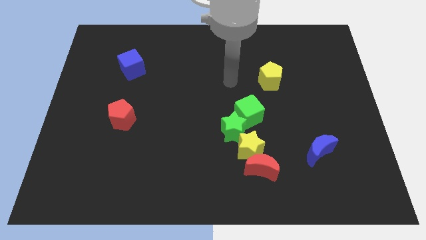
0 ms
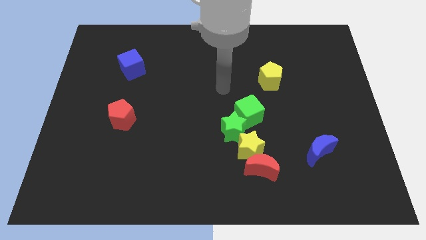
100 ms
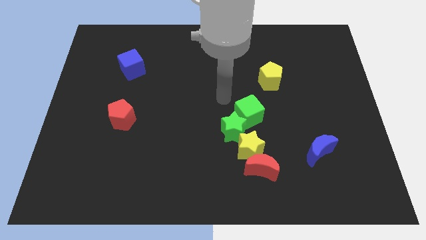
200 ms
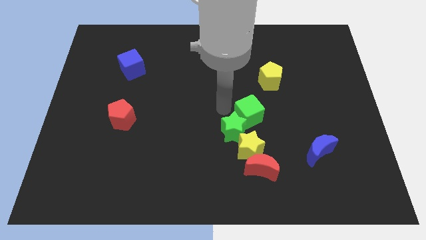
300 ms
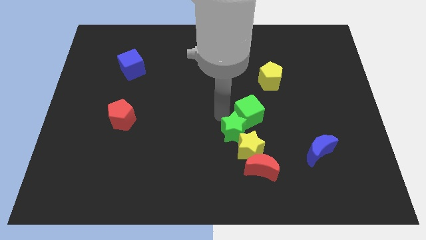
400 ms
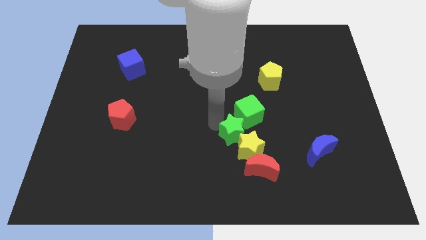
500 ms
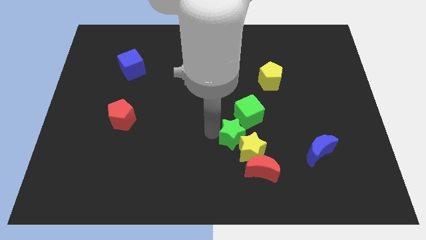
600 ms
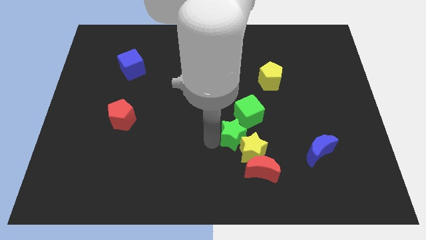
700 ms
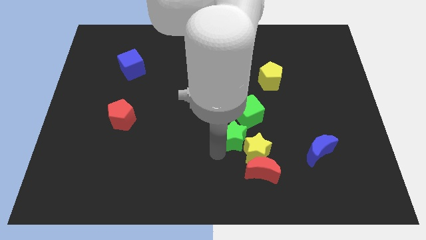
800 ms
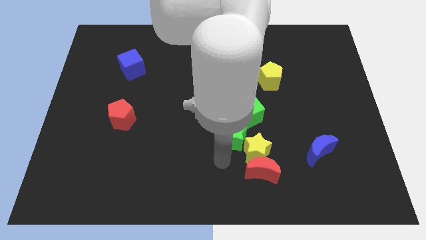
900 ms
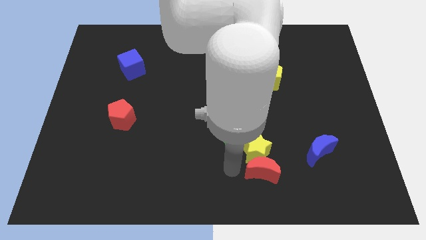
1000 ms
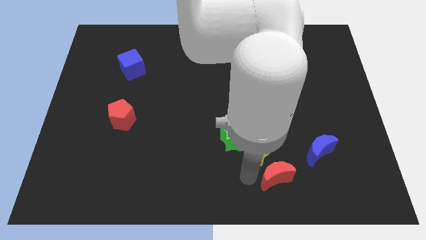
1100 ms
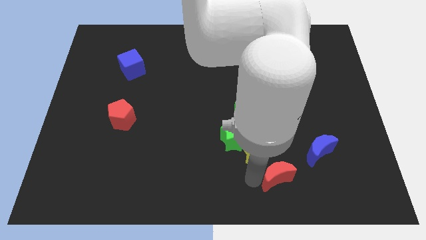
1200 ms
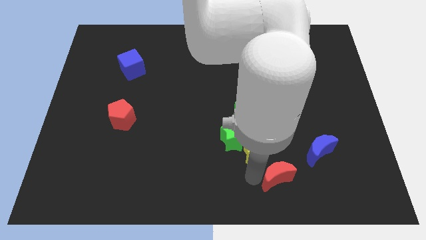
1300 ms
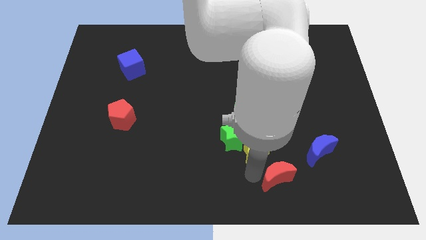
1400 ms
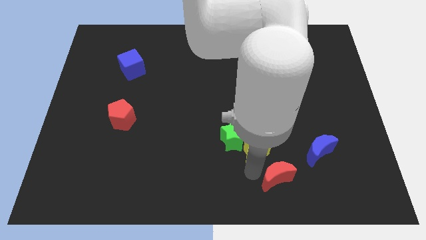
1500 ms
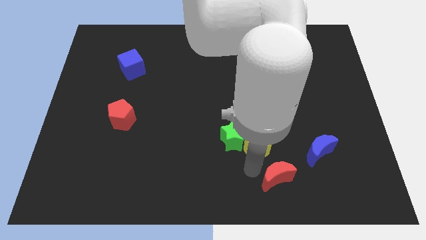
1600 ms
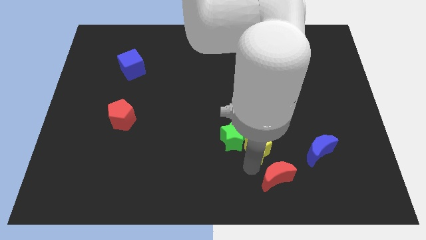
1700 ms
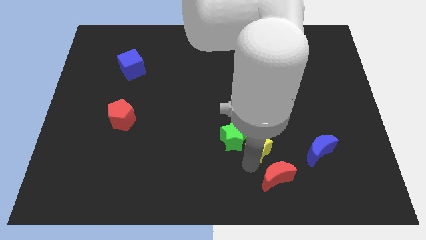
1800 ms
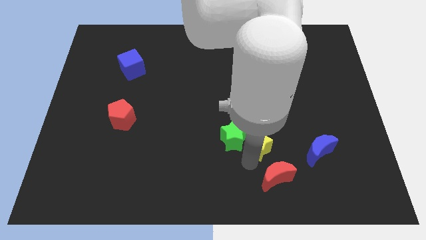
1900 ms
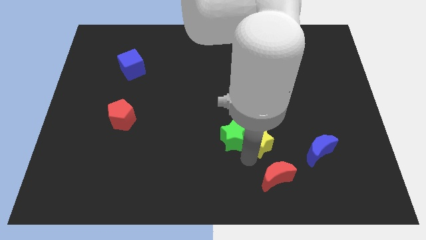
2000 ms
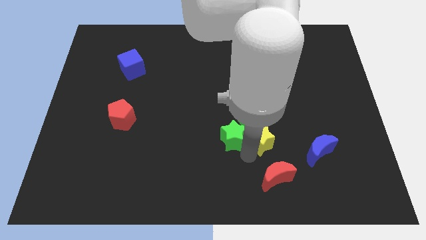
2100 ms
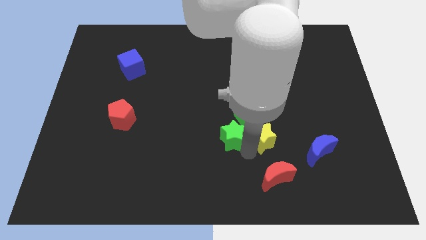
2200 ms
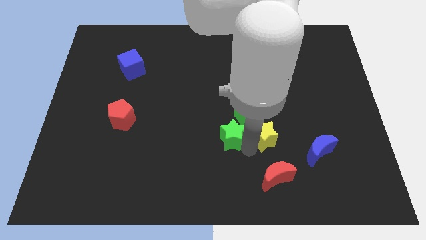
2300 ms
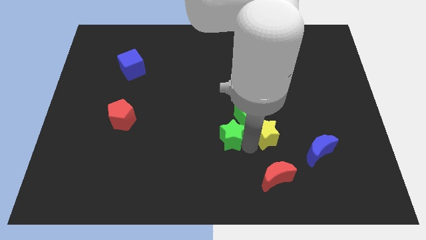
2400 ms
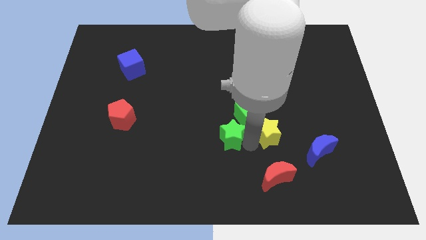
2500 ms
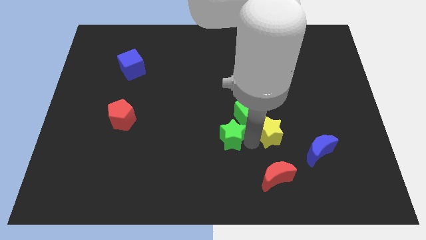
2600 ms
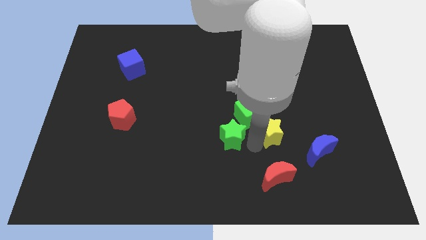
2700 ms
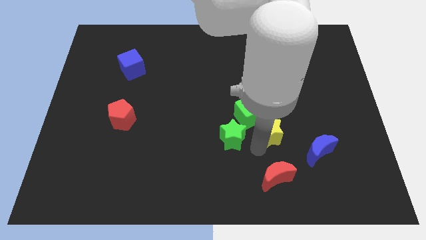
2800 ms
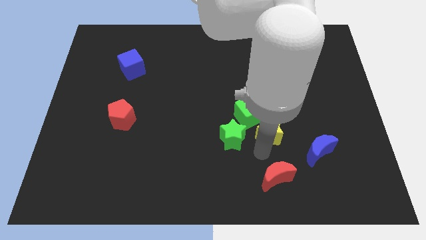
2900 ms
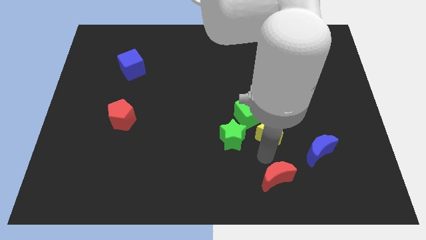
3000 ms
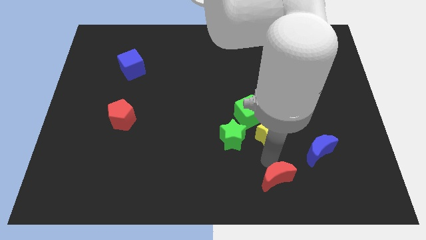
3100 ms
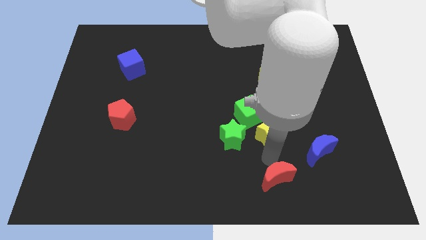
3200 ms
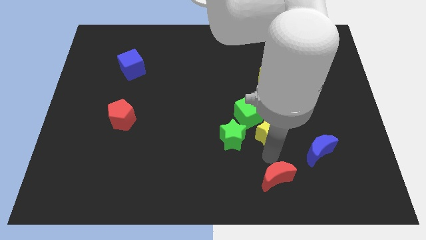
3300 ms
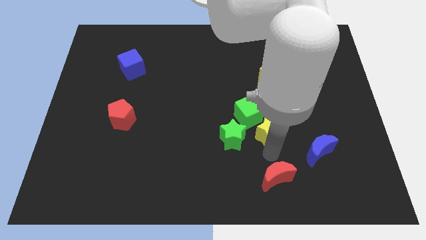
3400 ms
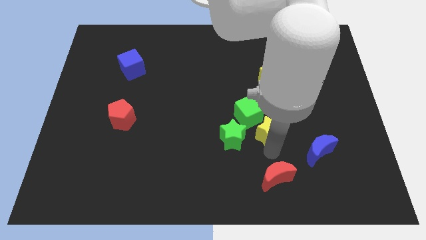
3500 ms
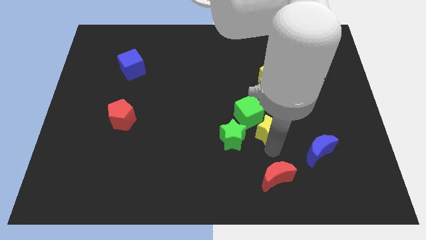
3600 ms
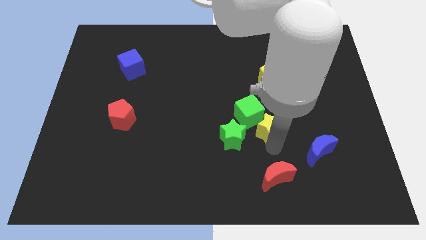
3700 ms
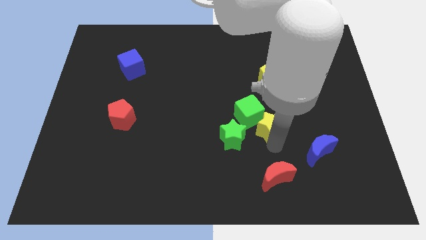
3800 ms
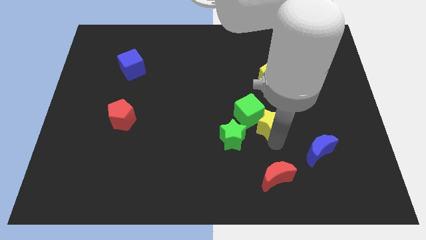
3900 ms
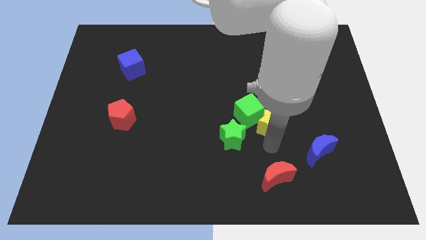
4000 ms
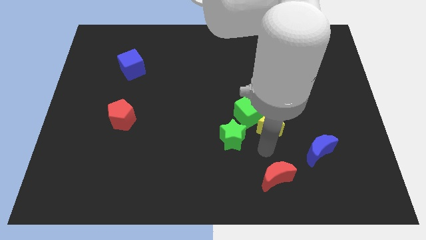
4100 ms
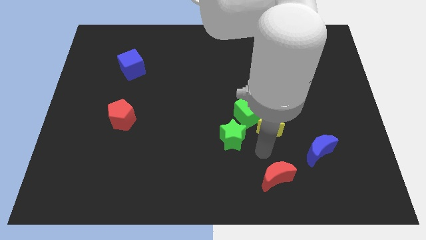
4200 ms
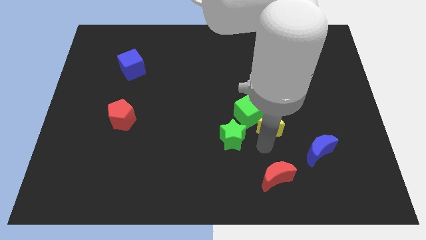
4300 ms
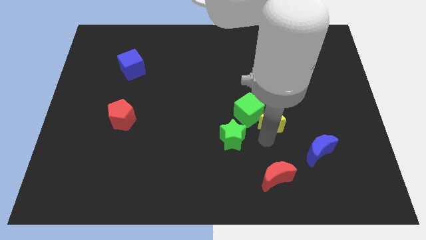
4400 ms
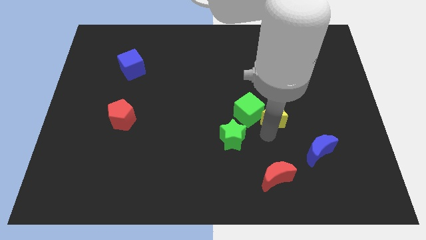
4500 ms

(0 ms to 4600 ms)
slightly move the yellow star up

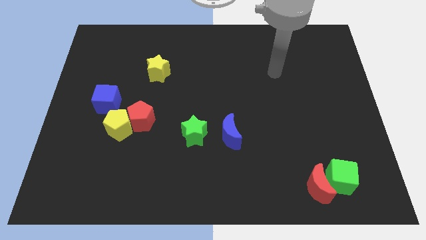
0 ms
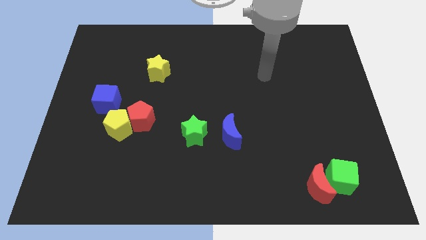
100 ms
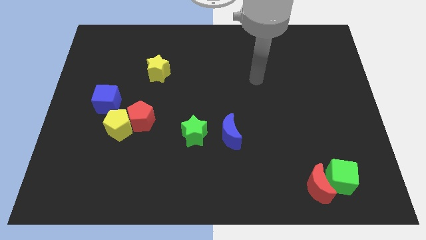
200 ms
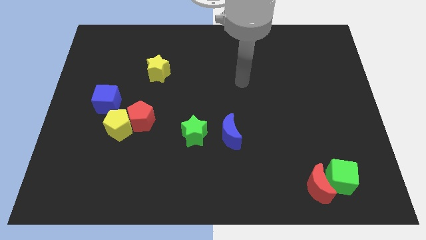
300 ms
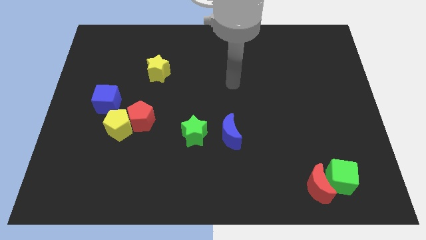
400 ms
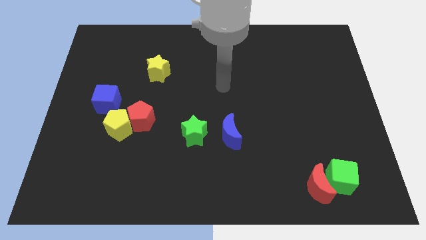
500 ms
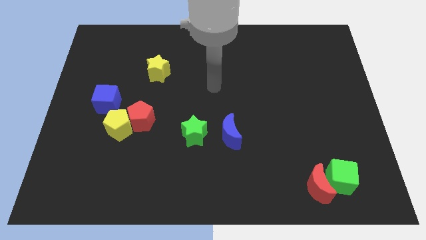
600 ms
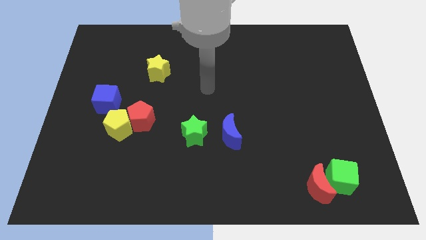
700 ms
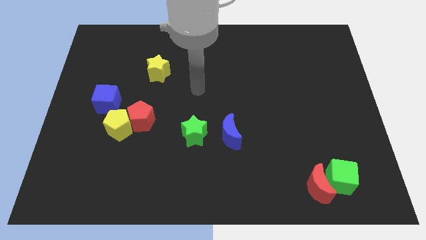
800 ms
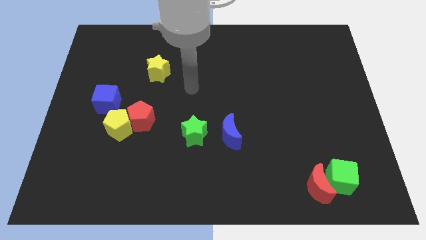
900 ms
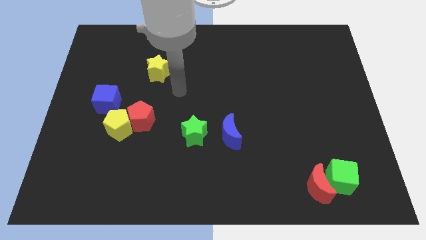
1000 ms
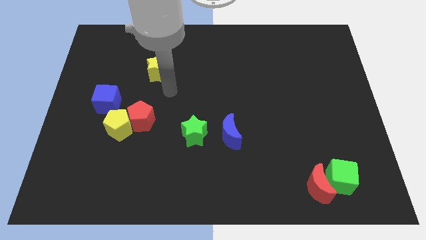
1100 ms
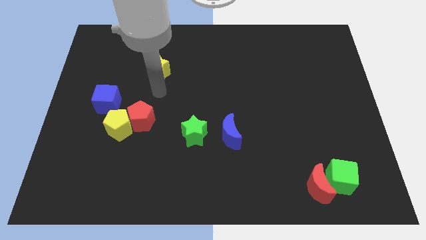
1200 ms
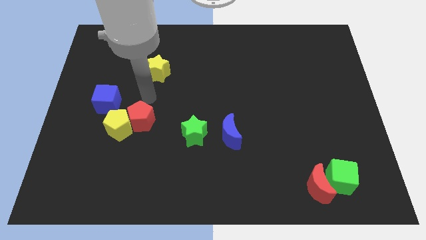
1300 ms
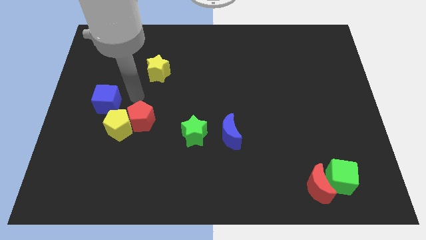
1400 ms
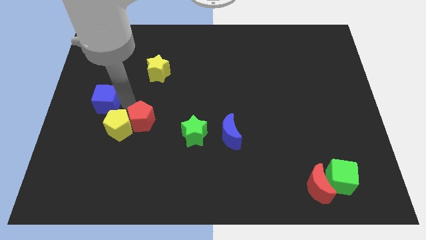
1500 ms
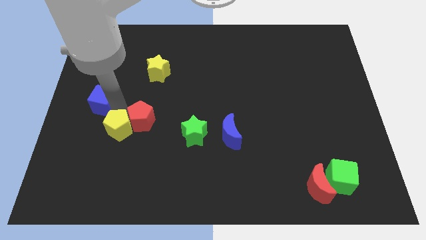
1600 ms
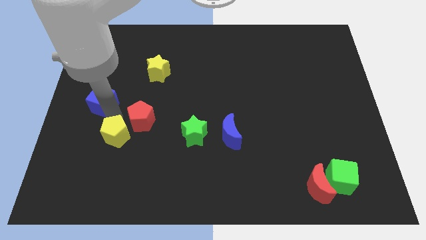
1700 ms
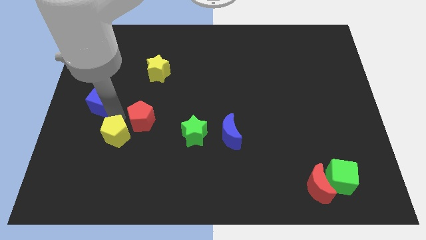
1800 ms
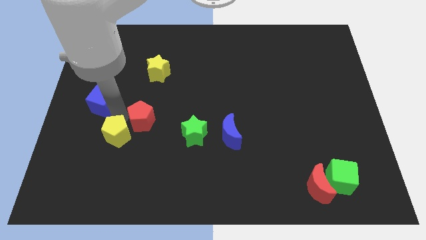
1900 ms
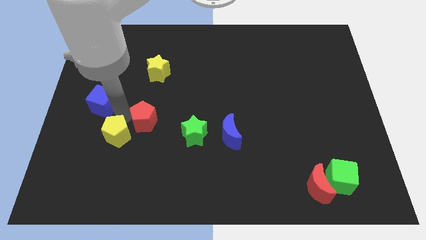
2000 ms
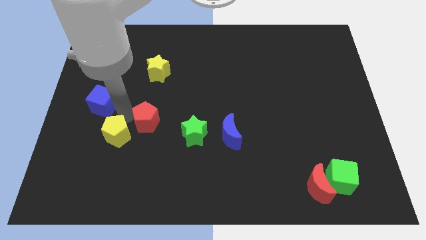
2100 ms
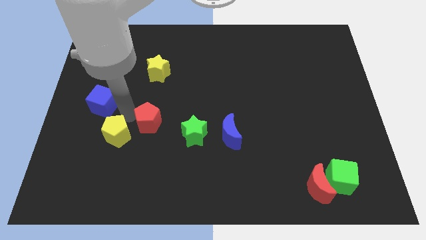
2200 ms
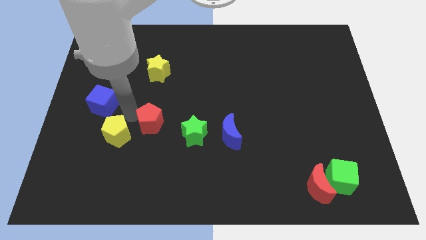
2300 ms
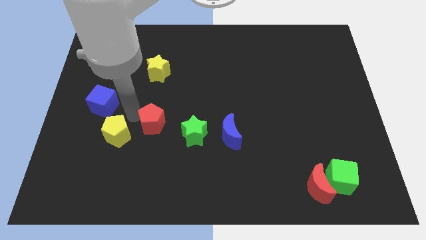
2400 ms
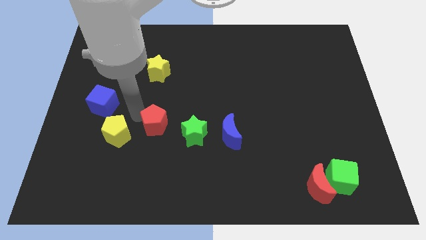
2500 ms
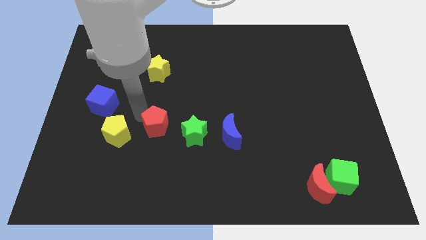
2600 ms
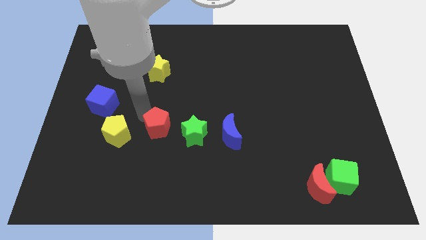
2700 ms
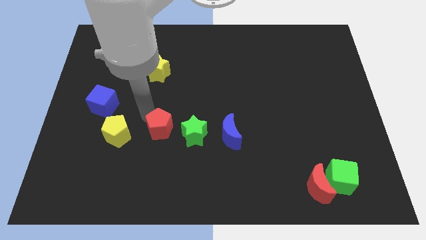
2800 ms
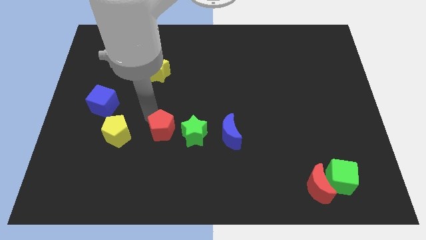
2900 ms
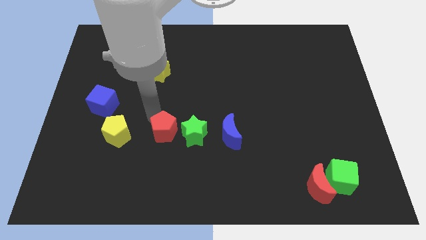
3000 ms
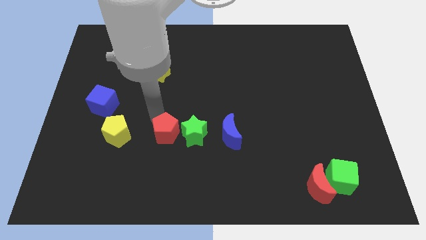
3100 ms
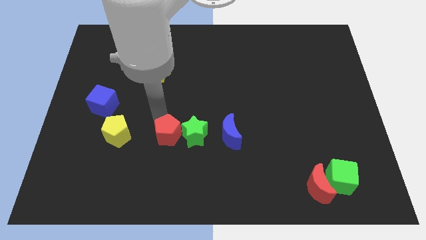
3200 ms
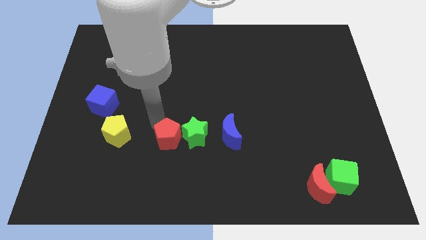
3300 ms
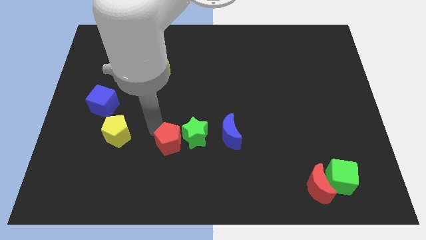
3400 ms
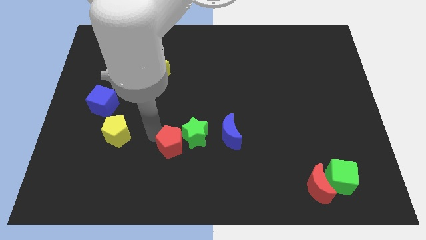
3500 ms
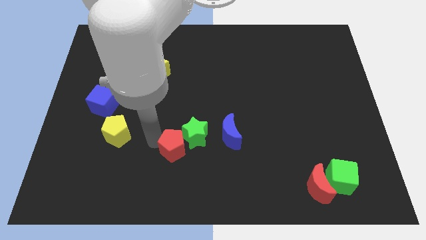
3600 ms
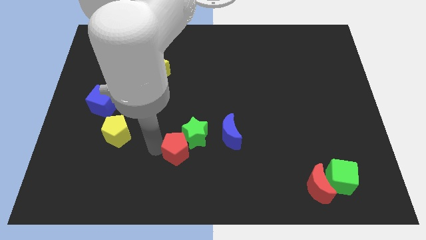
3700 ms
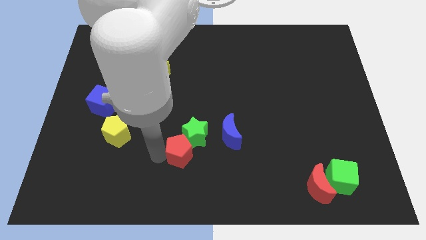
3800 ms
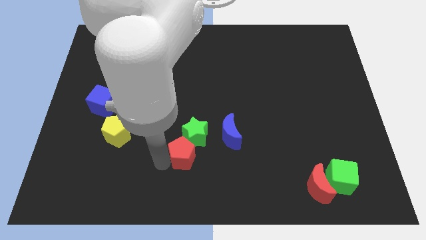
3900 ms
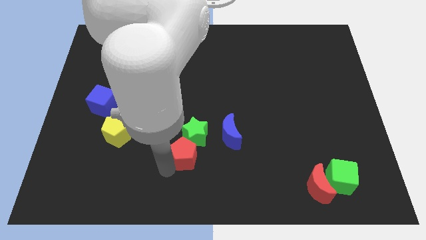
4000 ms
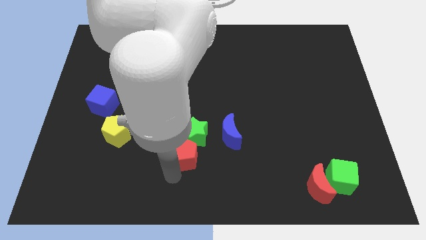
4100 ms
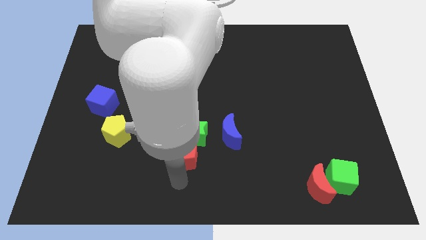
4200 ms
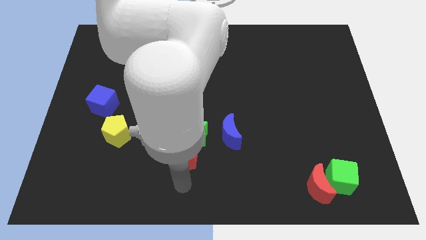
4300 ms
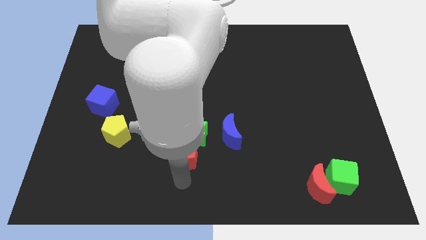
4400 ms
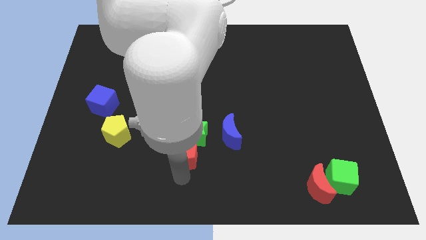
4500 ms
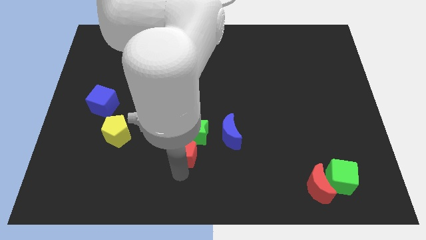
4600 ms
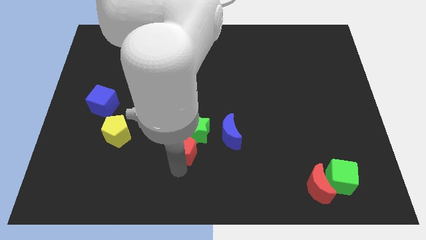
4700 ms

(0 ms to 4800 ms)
slide the red pentagon a little to the right
